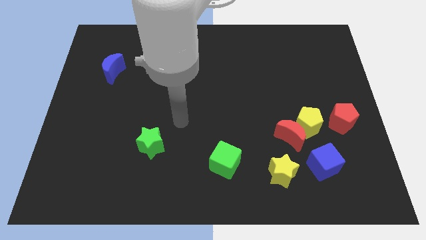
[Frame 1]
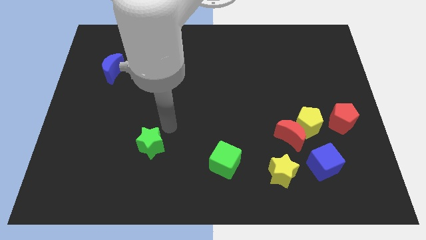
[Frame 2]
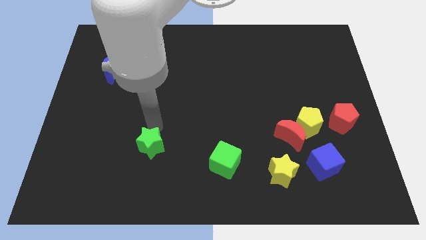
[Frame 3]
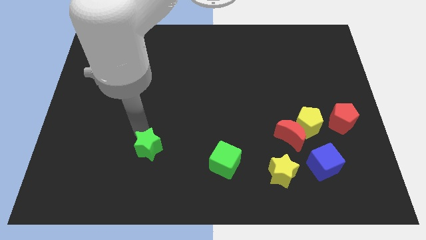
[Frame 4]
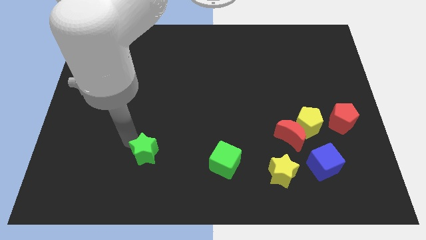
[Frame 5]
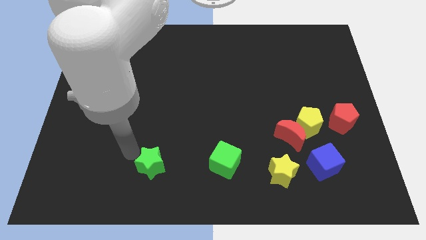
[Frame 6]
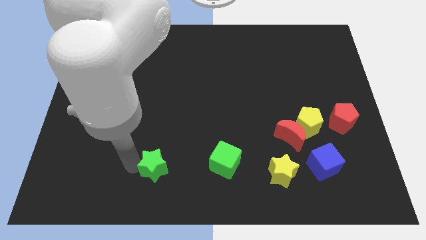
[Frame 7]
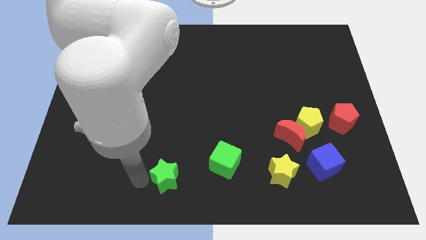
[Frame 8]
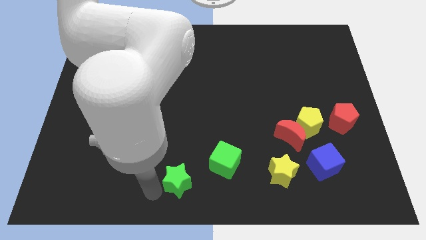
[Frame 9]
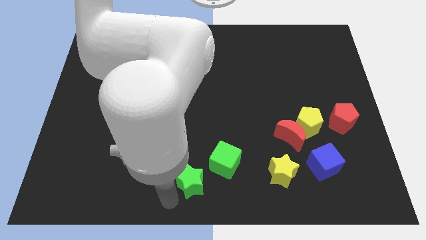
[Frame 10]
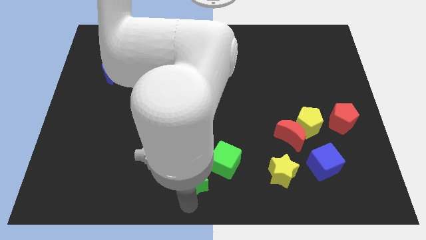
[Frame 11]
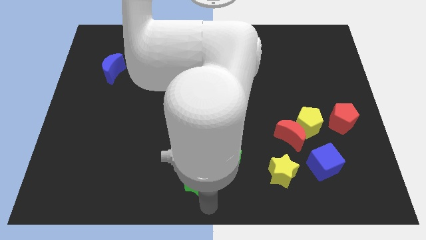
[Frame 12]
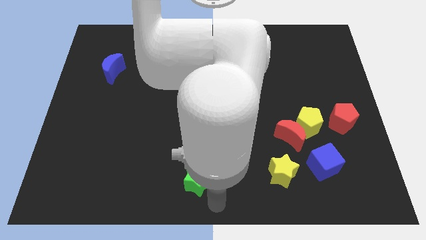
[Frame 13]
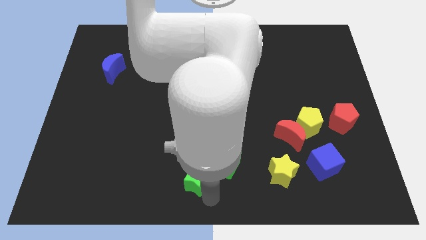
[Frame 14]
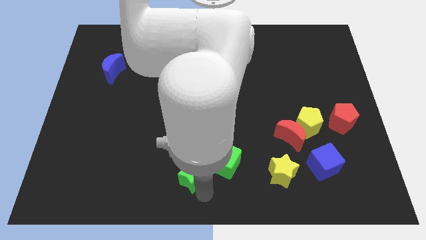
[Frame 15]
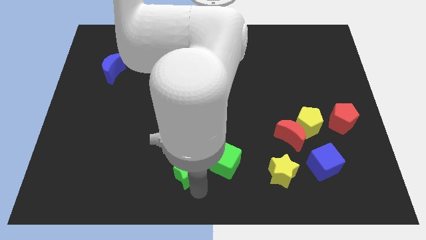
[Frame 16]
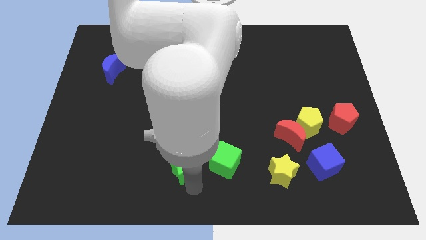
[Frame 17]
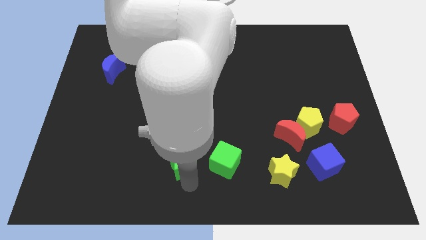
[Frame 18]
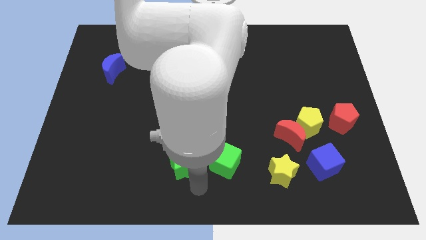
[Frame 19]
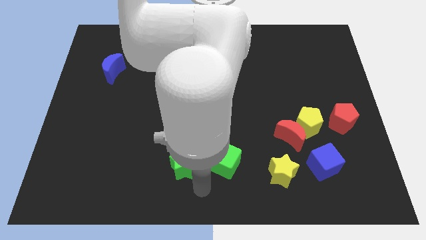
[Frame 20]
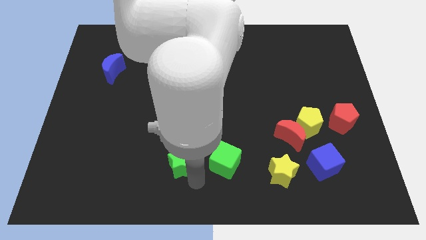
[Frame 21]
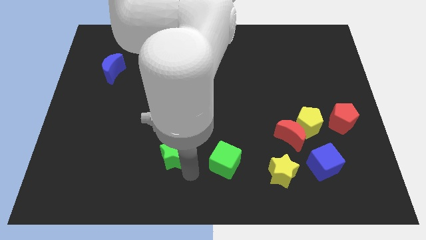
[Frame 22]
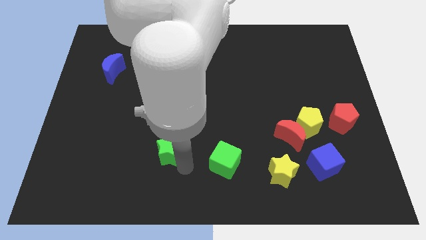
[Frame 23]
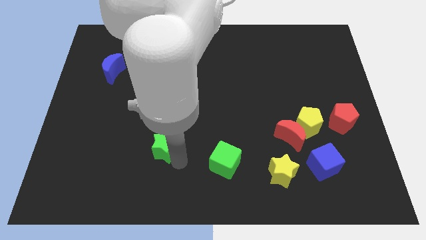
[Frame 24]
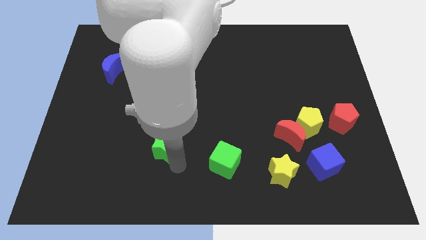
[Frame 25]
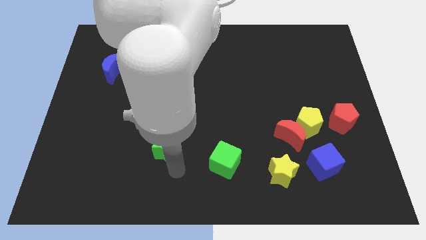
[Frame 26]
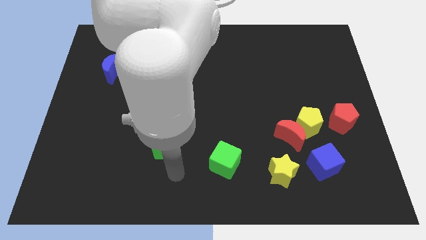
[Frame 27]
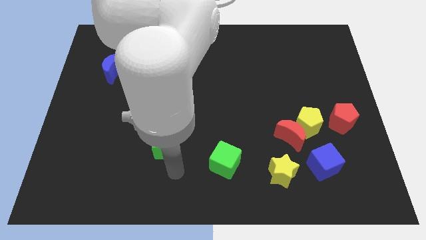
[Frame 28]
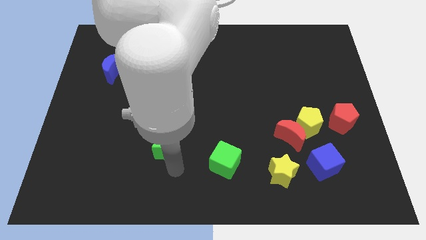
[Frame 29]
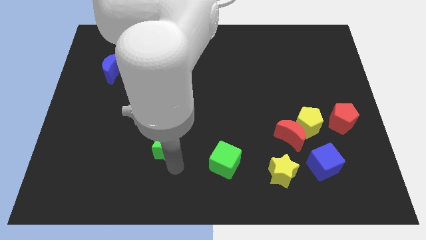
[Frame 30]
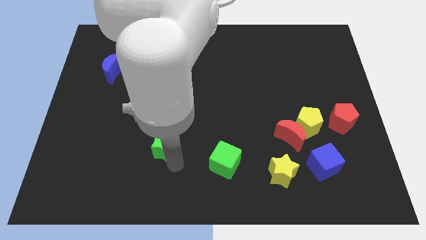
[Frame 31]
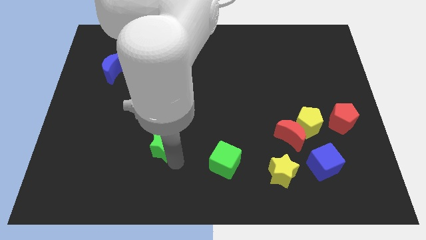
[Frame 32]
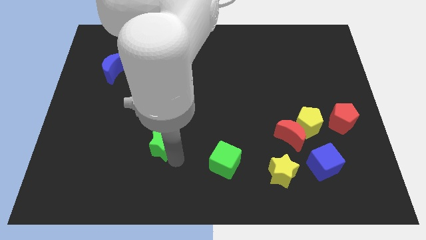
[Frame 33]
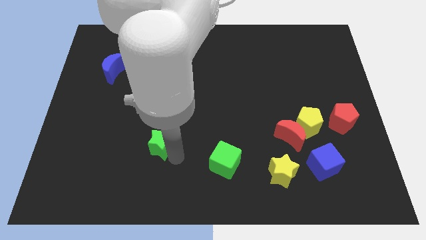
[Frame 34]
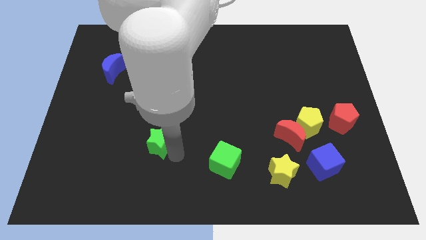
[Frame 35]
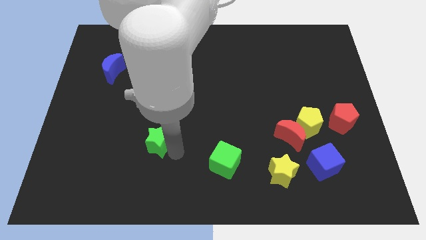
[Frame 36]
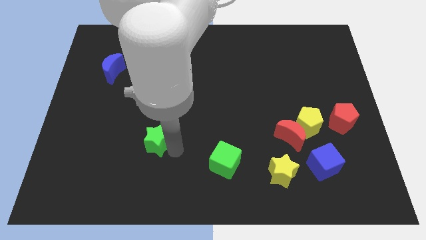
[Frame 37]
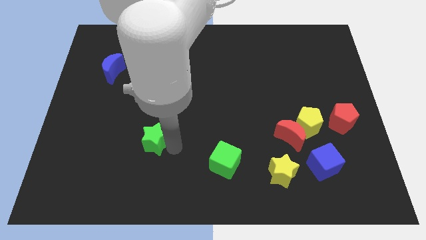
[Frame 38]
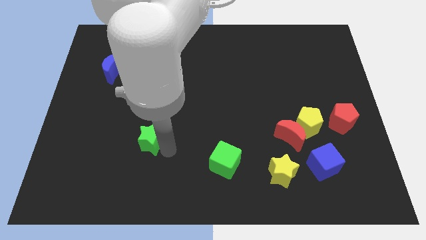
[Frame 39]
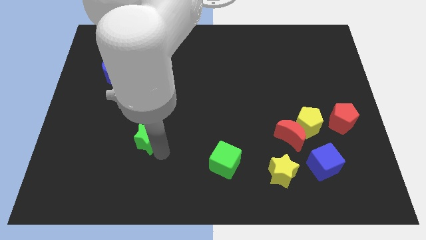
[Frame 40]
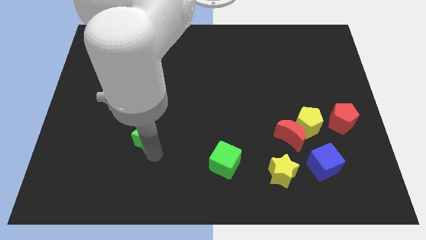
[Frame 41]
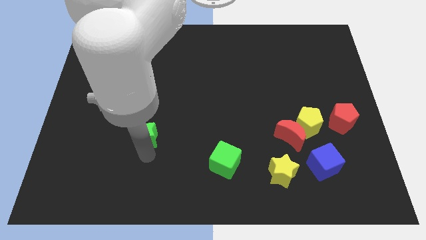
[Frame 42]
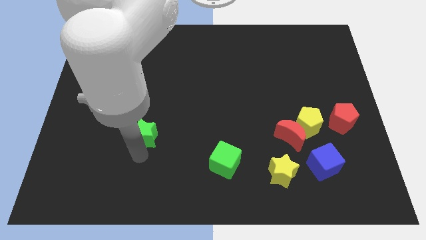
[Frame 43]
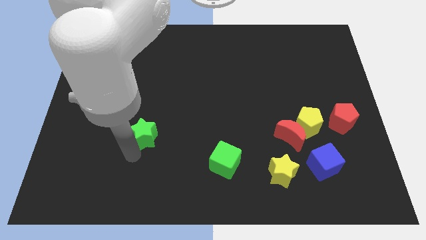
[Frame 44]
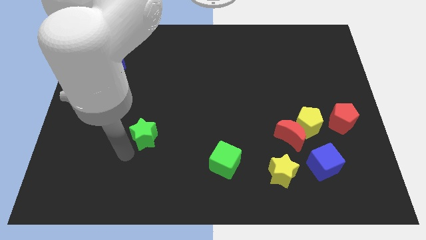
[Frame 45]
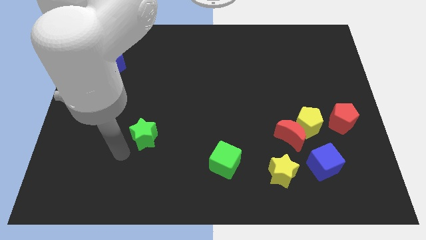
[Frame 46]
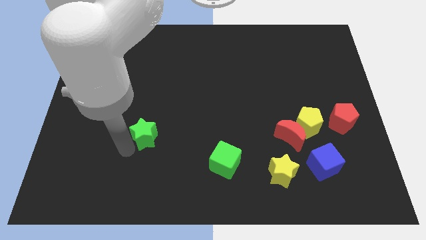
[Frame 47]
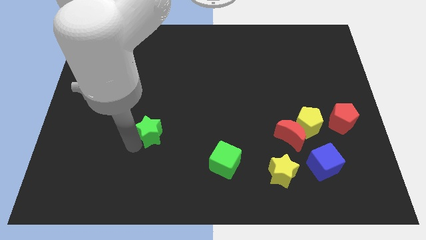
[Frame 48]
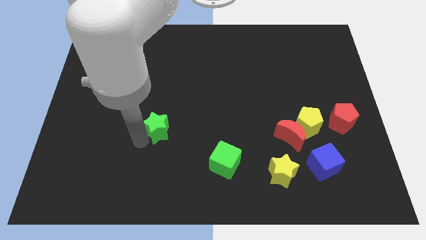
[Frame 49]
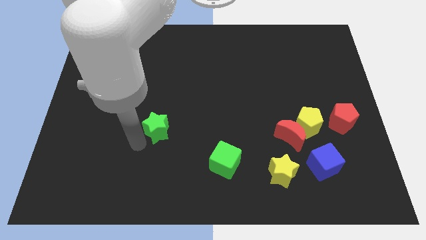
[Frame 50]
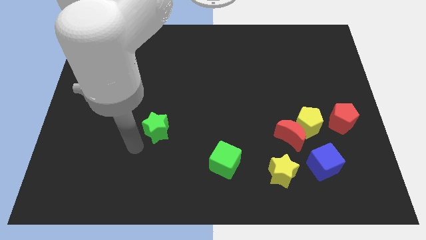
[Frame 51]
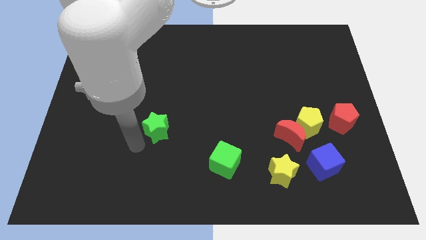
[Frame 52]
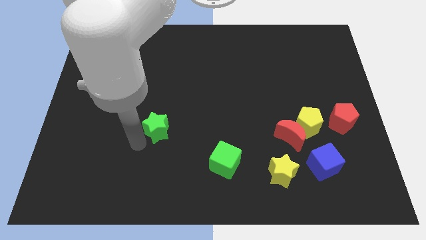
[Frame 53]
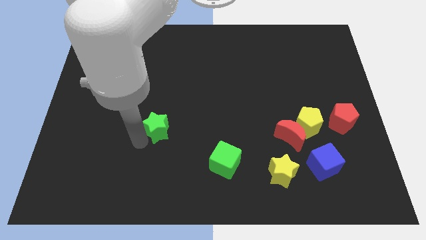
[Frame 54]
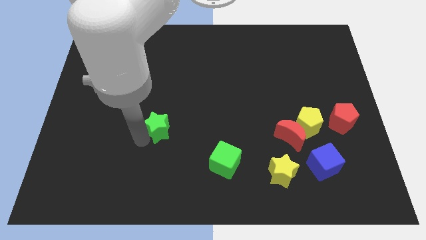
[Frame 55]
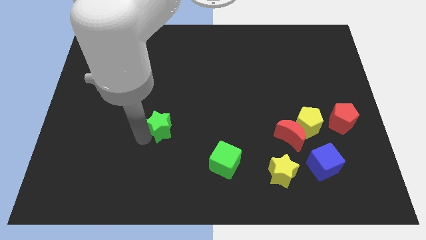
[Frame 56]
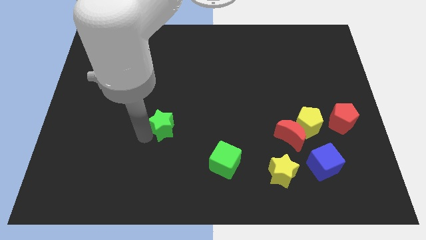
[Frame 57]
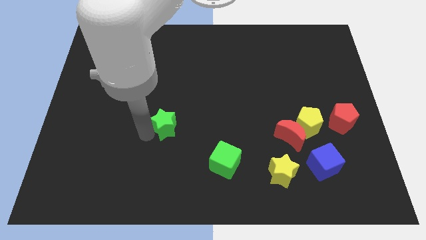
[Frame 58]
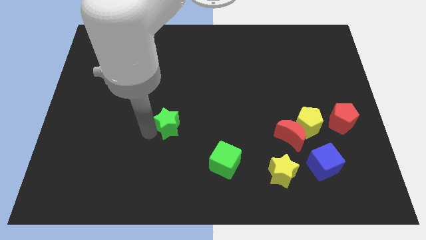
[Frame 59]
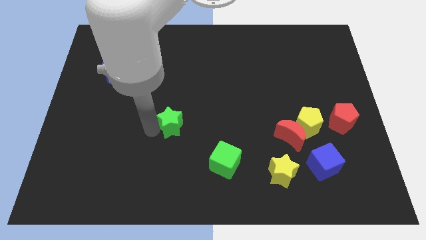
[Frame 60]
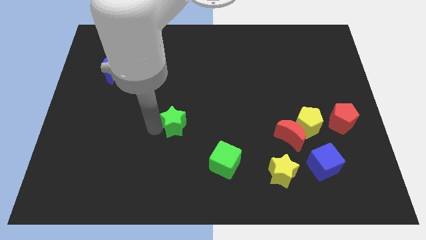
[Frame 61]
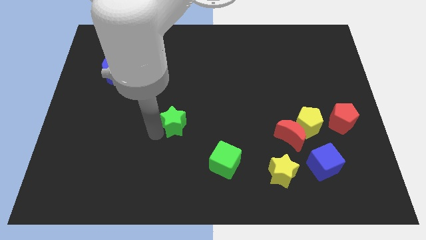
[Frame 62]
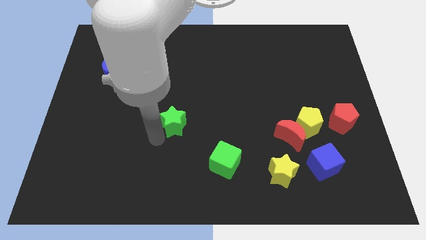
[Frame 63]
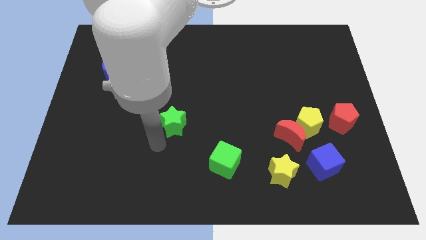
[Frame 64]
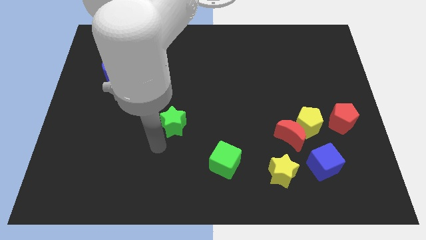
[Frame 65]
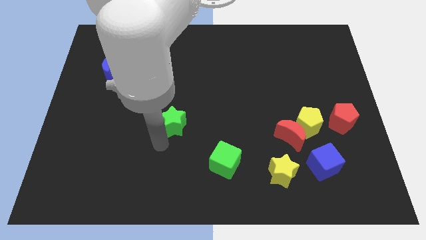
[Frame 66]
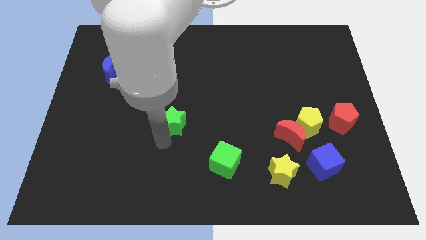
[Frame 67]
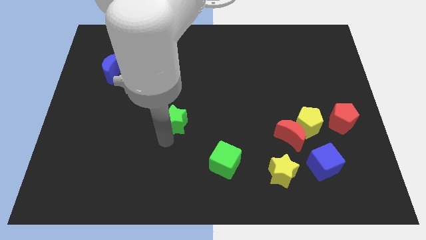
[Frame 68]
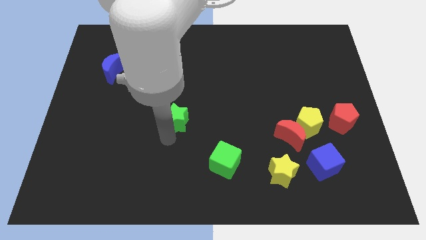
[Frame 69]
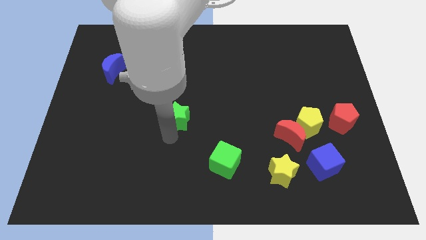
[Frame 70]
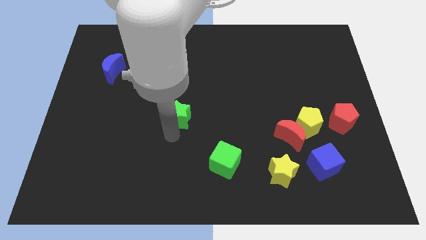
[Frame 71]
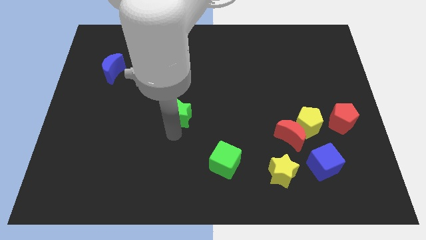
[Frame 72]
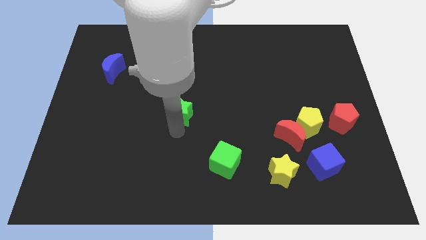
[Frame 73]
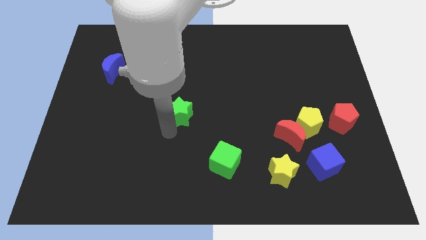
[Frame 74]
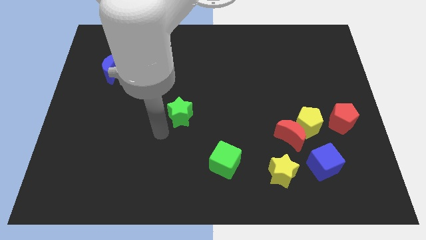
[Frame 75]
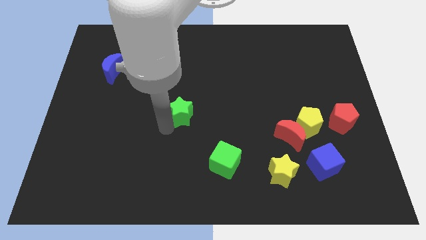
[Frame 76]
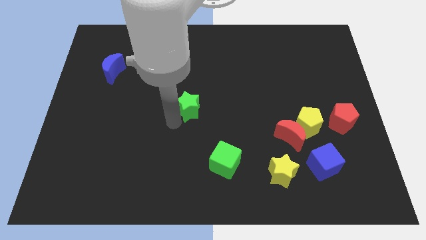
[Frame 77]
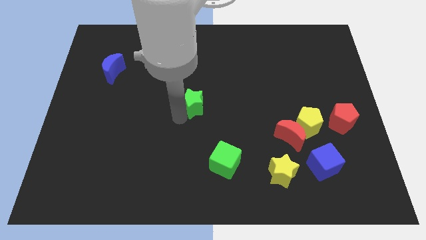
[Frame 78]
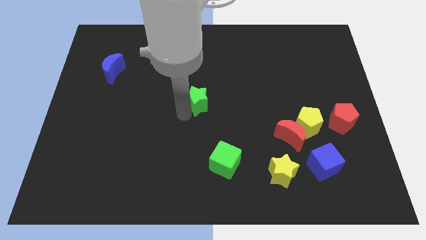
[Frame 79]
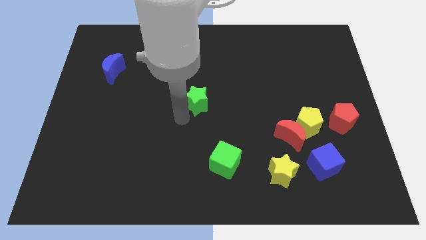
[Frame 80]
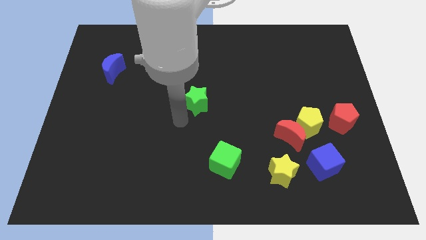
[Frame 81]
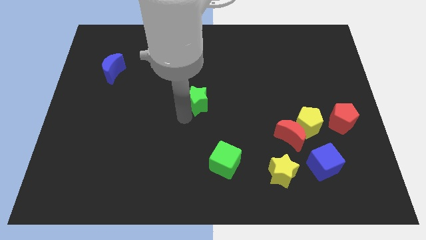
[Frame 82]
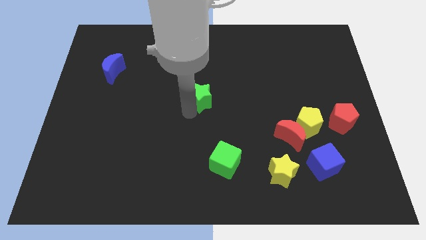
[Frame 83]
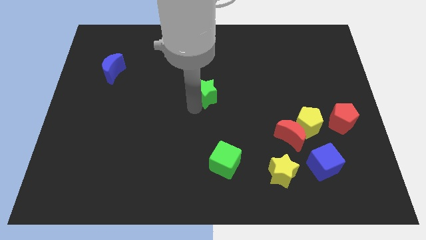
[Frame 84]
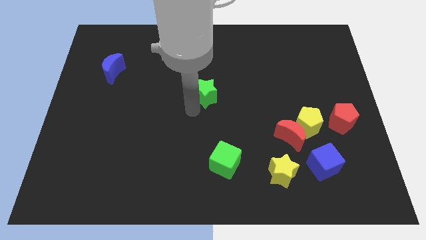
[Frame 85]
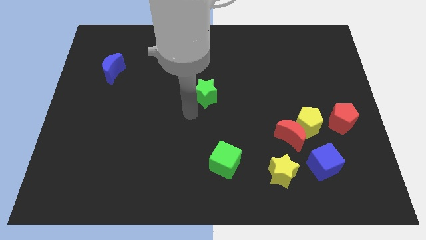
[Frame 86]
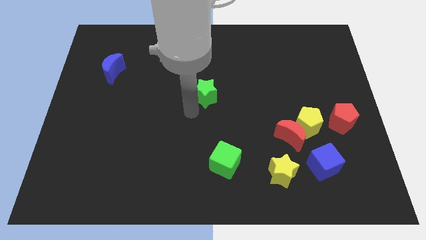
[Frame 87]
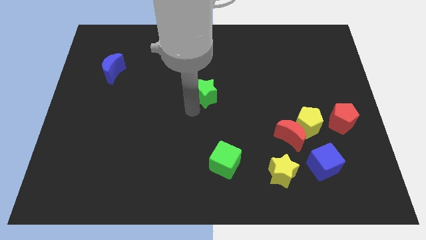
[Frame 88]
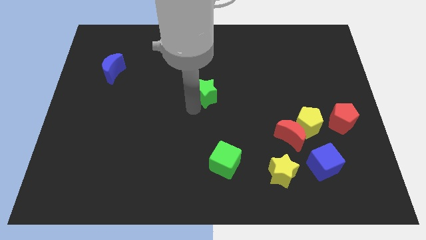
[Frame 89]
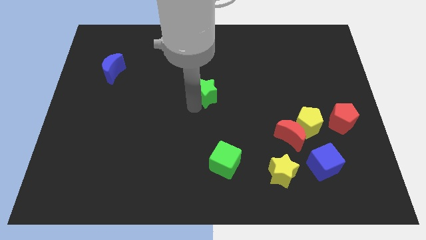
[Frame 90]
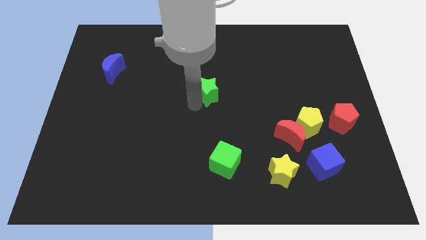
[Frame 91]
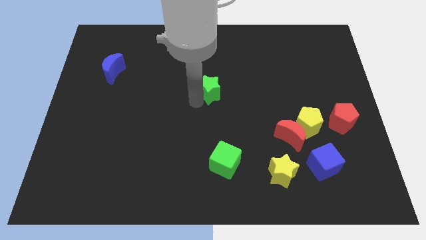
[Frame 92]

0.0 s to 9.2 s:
slide the green star diagonally upwards and to the right
